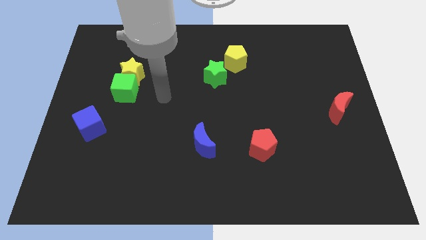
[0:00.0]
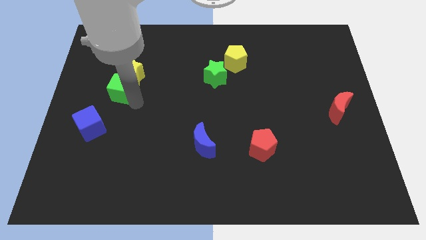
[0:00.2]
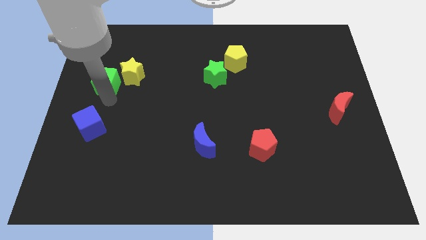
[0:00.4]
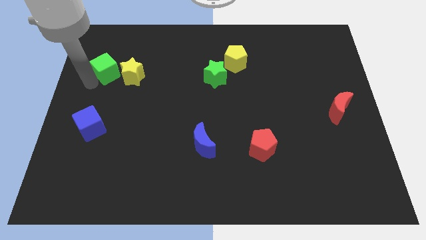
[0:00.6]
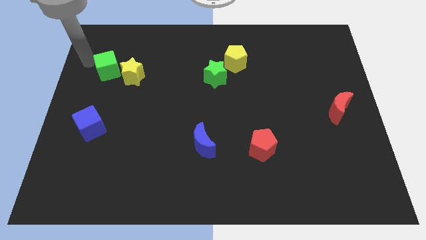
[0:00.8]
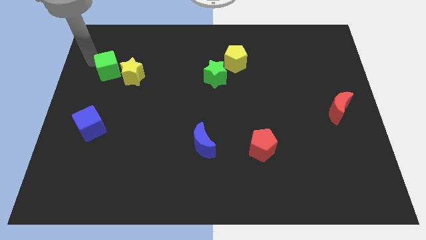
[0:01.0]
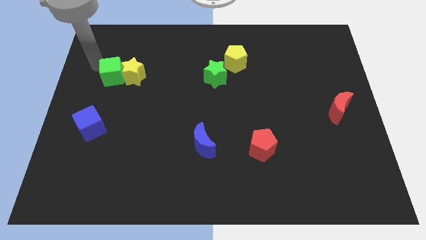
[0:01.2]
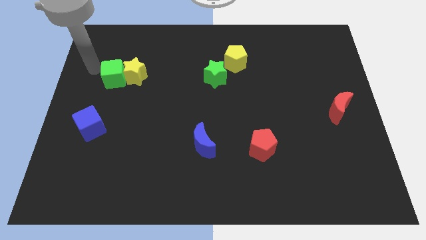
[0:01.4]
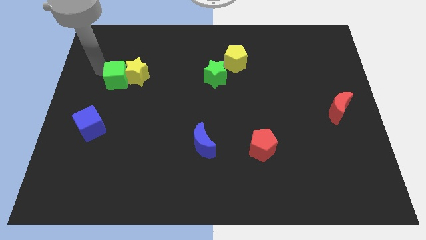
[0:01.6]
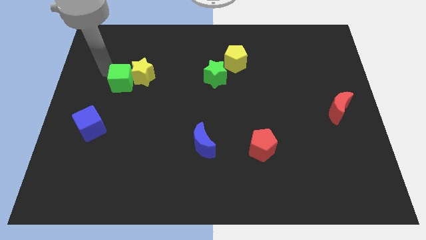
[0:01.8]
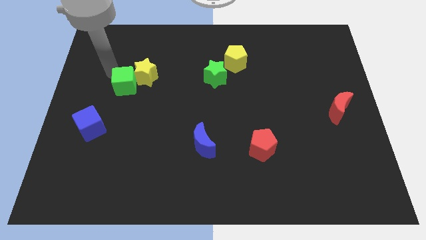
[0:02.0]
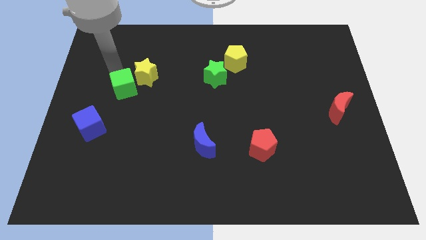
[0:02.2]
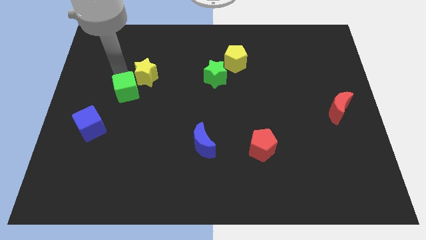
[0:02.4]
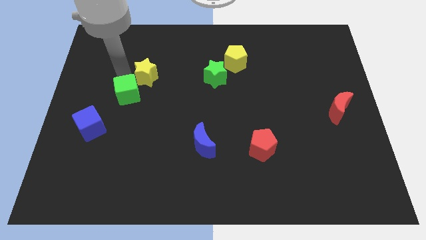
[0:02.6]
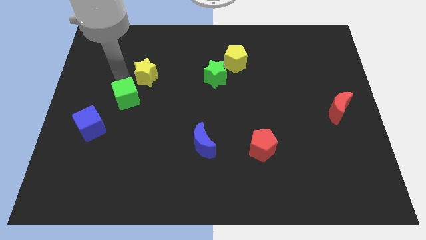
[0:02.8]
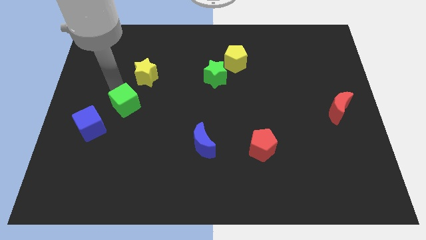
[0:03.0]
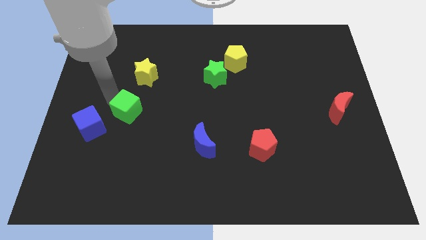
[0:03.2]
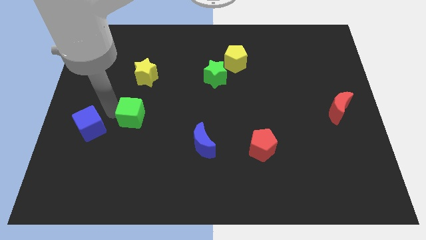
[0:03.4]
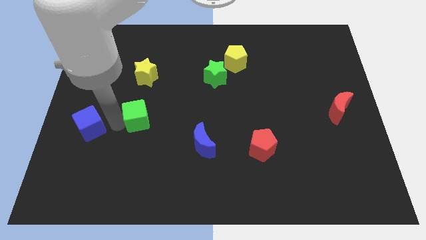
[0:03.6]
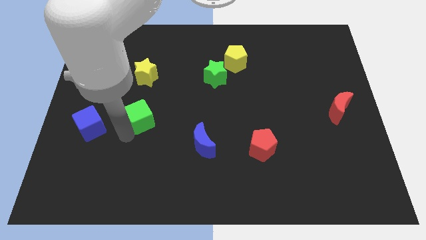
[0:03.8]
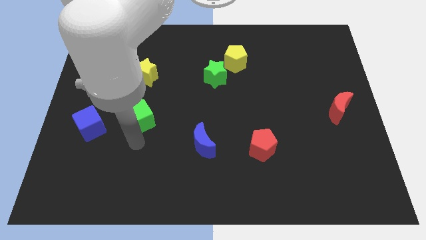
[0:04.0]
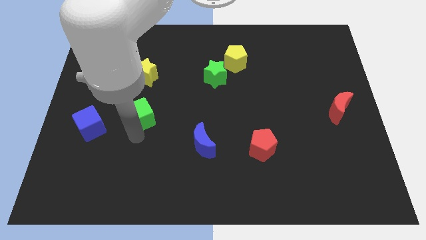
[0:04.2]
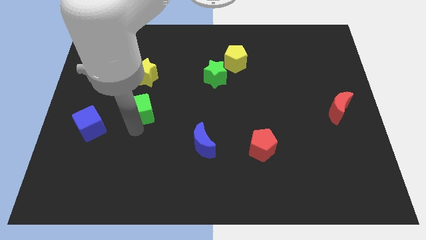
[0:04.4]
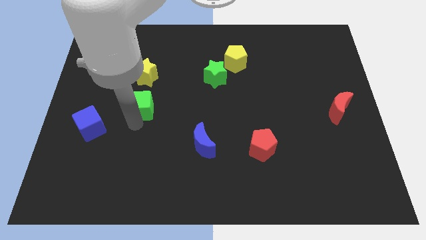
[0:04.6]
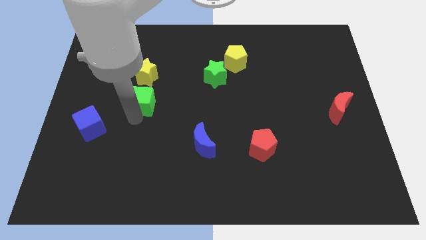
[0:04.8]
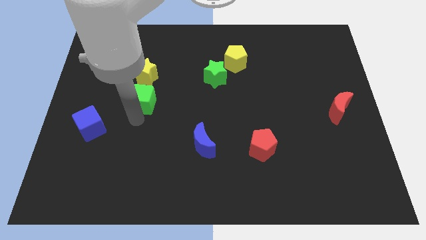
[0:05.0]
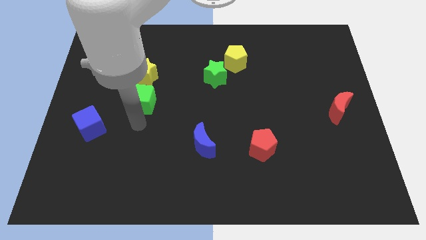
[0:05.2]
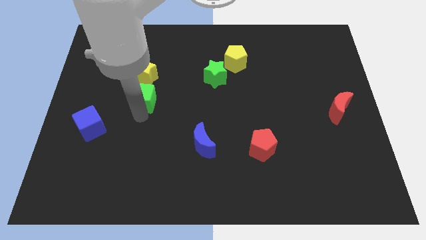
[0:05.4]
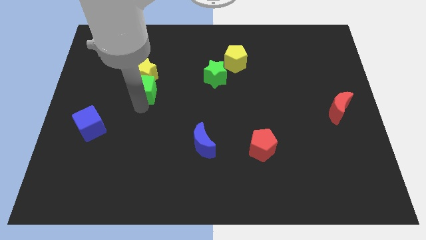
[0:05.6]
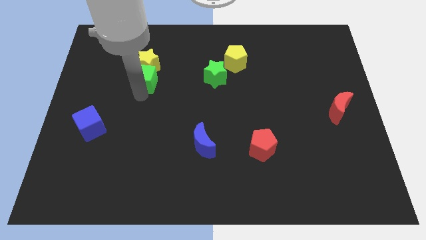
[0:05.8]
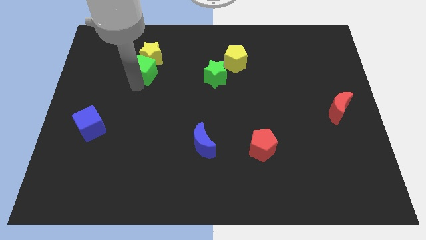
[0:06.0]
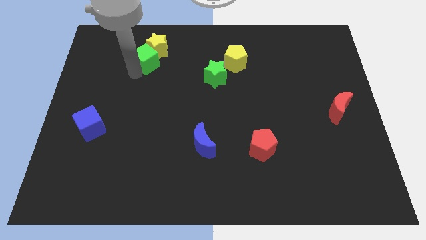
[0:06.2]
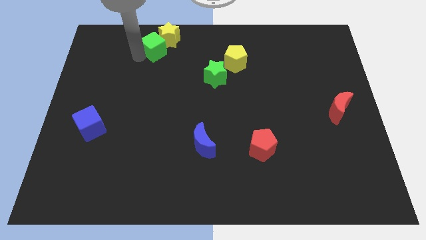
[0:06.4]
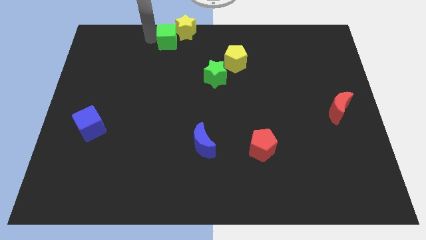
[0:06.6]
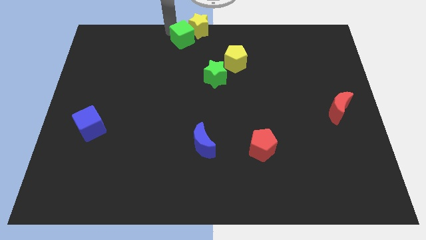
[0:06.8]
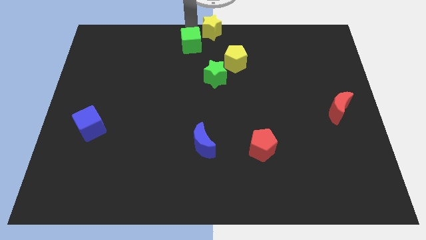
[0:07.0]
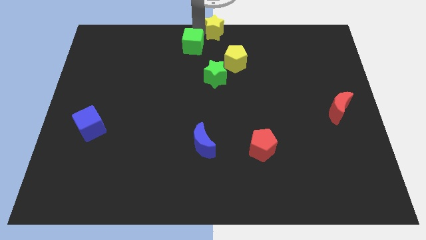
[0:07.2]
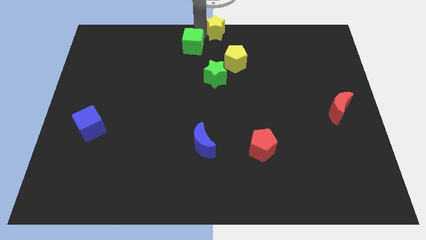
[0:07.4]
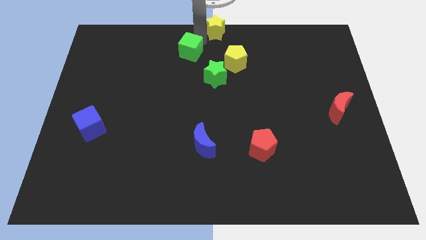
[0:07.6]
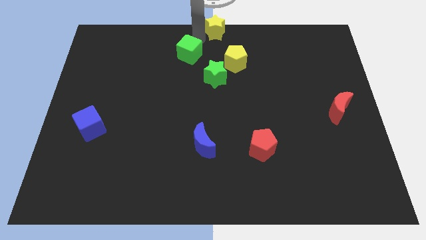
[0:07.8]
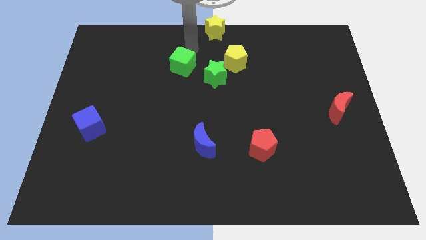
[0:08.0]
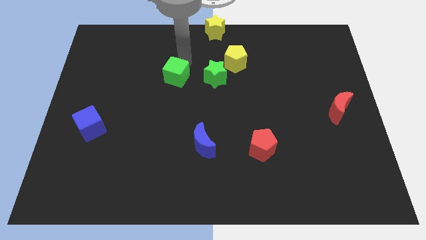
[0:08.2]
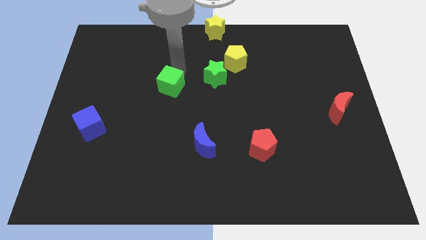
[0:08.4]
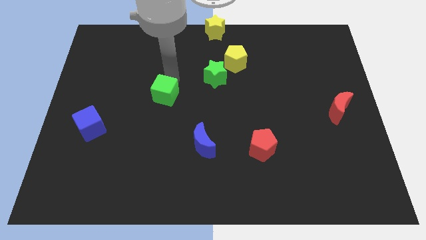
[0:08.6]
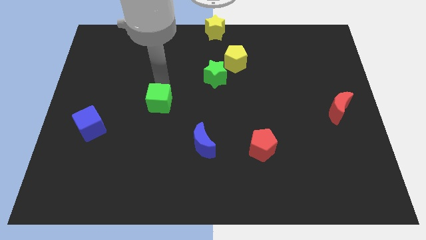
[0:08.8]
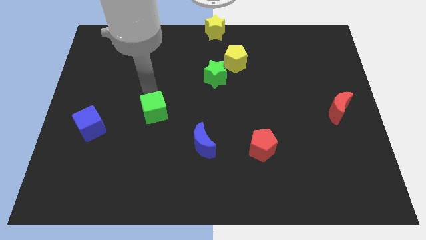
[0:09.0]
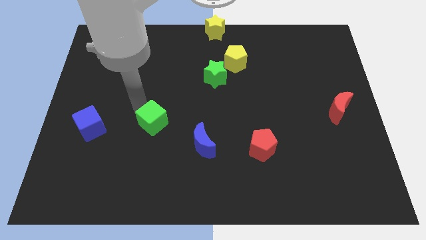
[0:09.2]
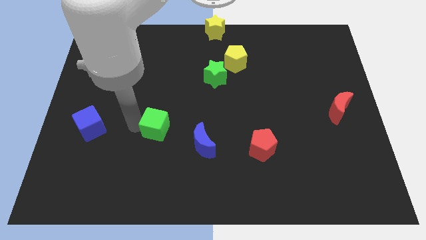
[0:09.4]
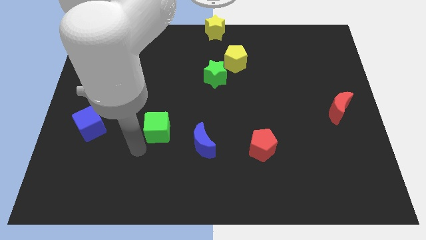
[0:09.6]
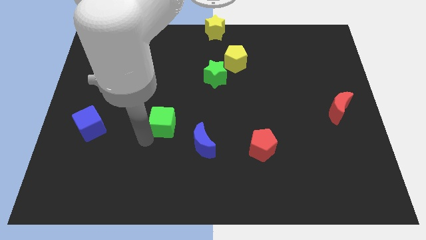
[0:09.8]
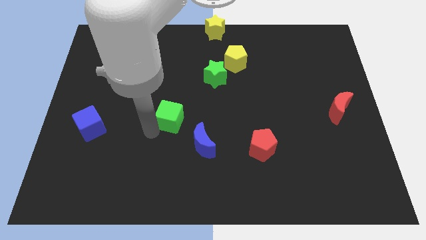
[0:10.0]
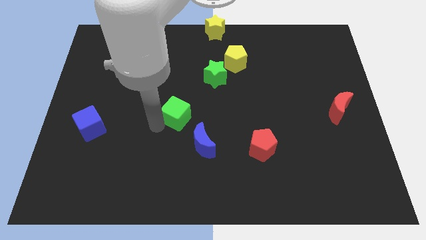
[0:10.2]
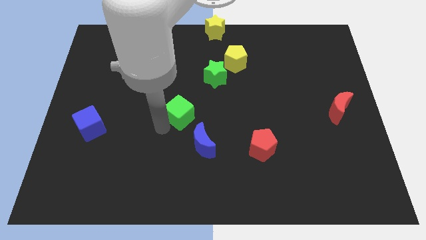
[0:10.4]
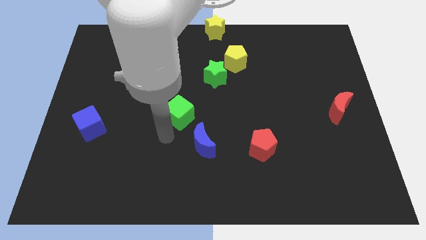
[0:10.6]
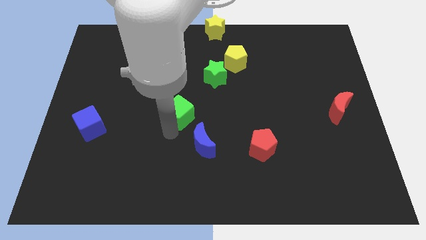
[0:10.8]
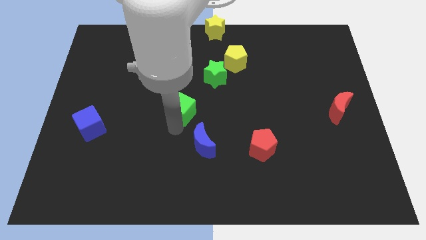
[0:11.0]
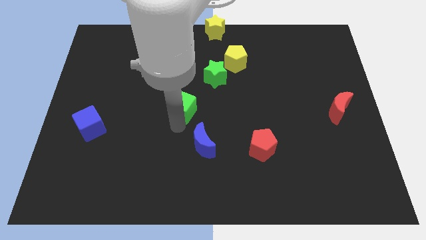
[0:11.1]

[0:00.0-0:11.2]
move the green cube diagonally down and to the left of the green star

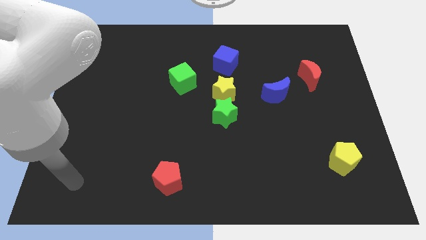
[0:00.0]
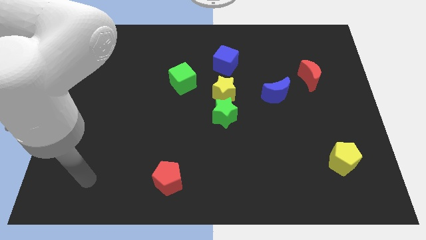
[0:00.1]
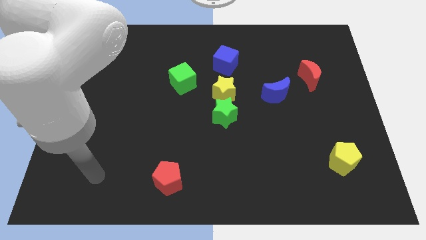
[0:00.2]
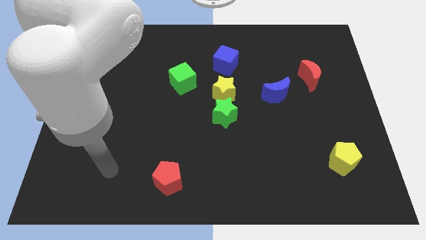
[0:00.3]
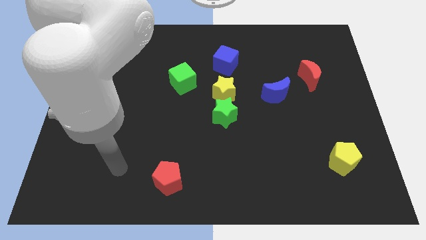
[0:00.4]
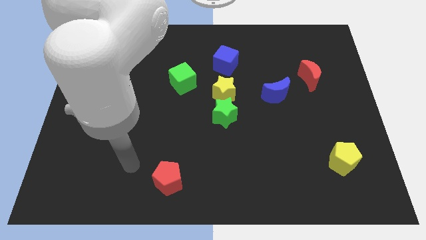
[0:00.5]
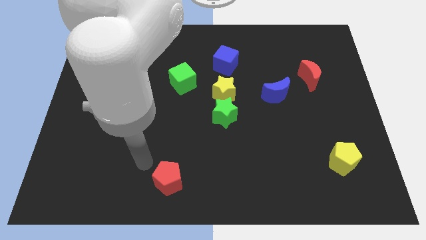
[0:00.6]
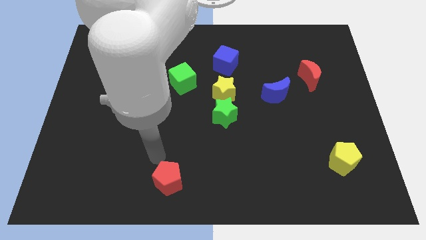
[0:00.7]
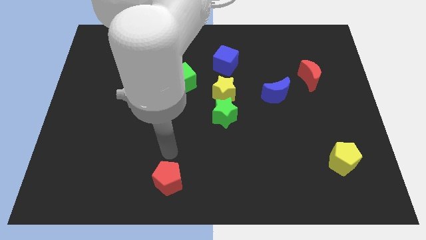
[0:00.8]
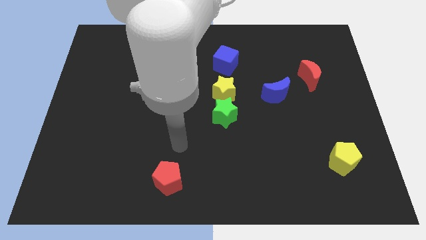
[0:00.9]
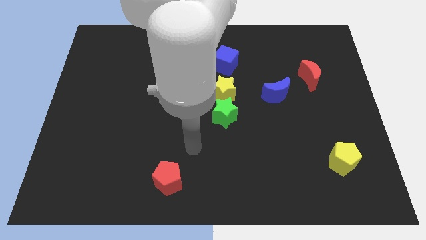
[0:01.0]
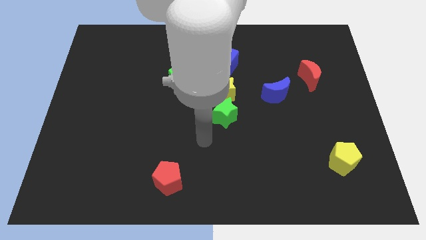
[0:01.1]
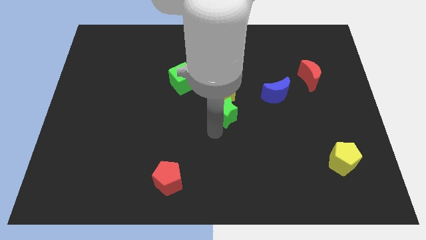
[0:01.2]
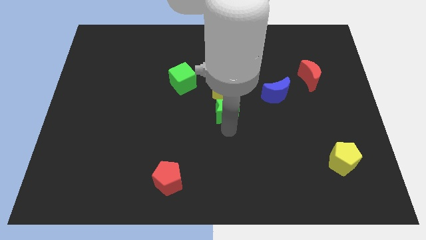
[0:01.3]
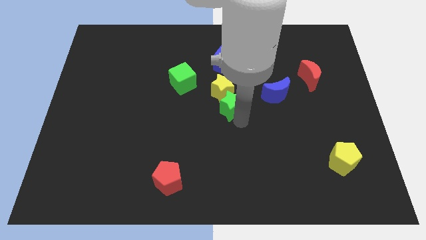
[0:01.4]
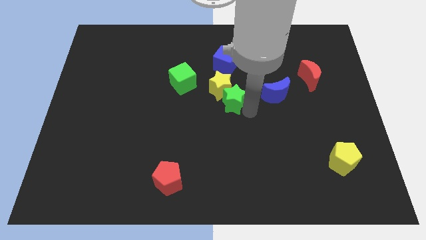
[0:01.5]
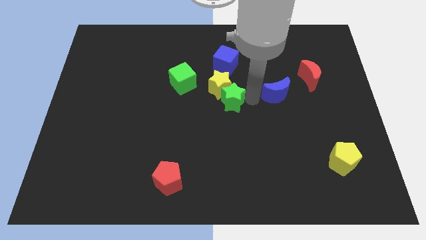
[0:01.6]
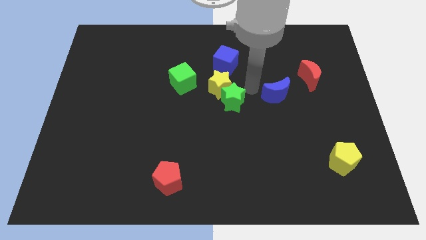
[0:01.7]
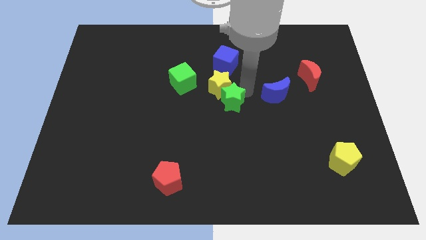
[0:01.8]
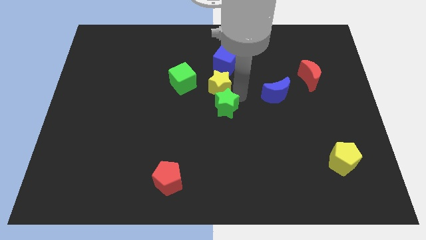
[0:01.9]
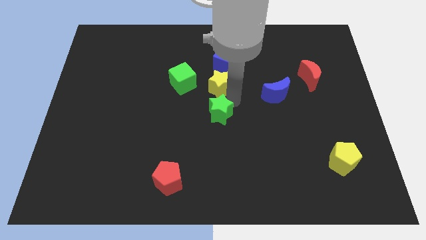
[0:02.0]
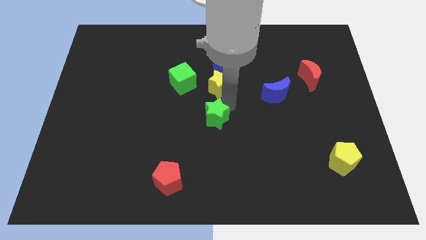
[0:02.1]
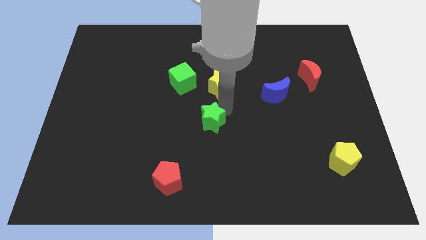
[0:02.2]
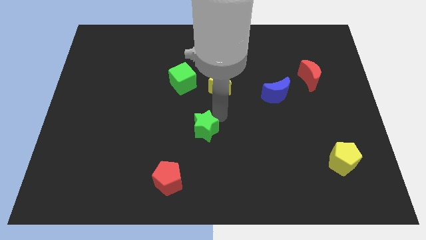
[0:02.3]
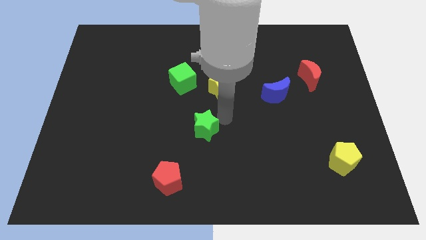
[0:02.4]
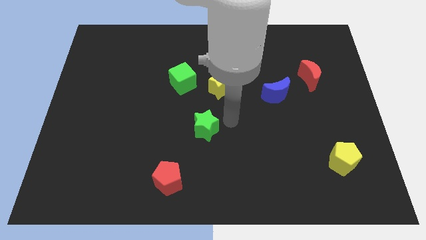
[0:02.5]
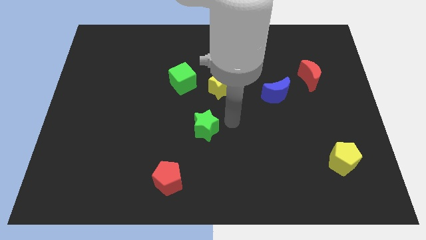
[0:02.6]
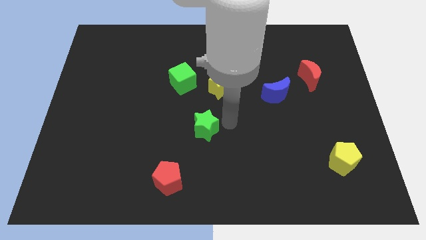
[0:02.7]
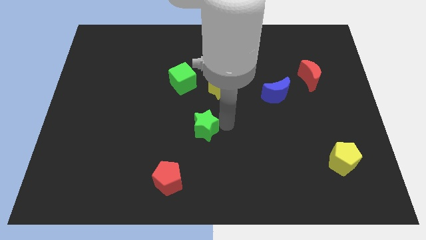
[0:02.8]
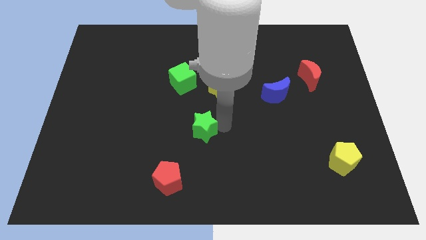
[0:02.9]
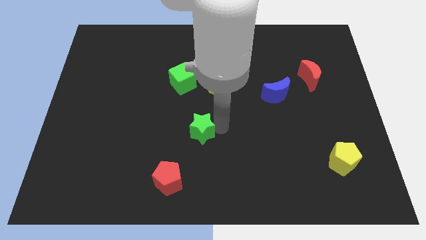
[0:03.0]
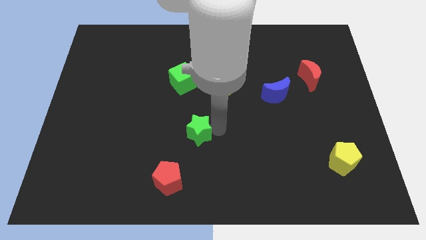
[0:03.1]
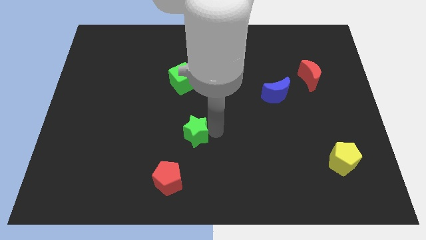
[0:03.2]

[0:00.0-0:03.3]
slide the green star above the red pentagon
